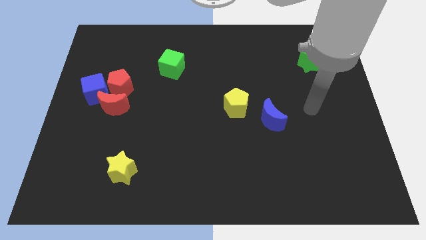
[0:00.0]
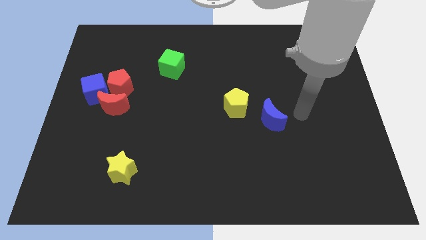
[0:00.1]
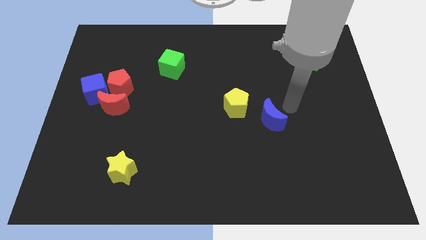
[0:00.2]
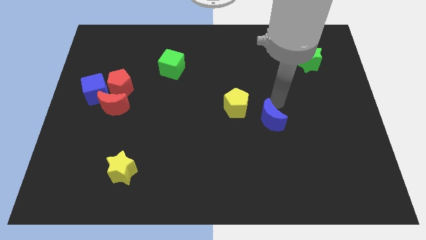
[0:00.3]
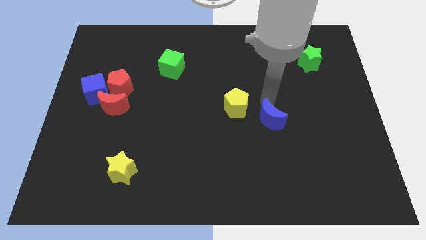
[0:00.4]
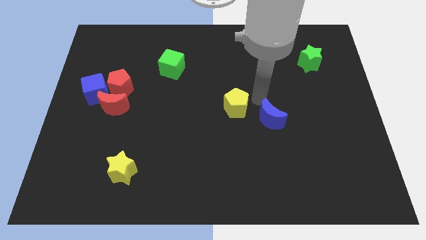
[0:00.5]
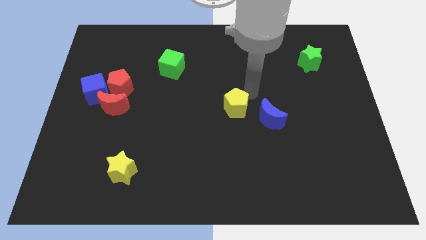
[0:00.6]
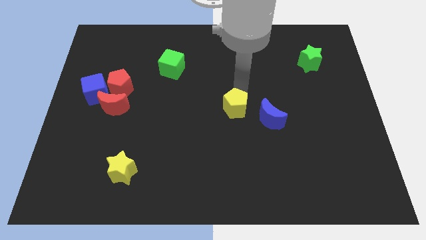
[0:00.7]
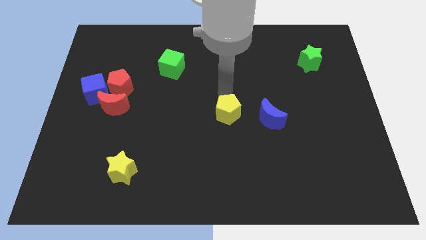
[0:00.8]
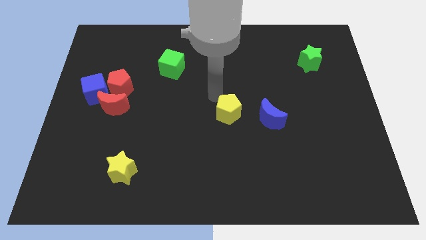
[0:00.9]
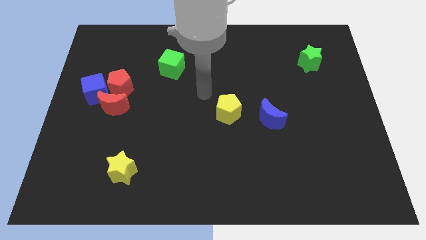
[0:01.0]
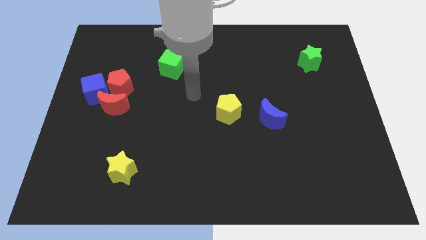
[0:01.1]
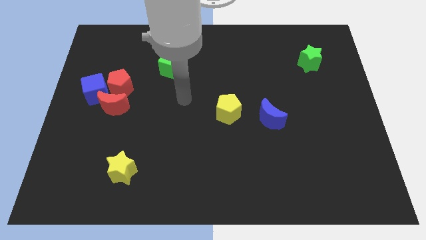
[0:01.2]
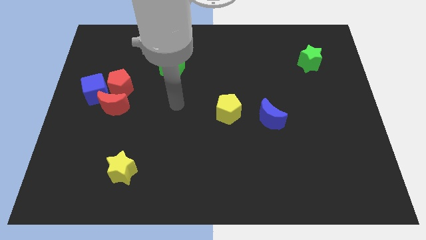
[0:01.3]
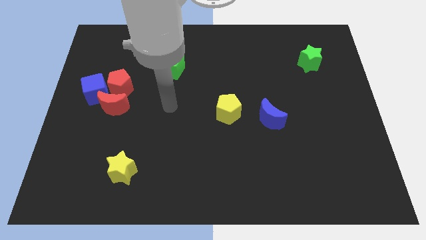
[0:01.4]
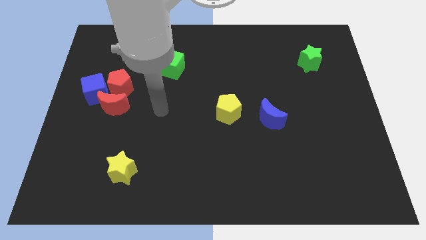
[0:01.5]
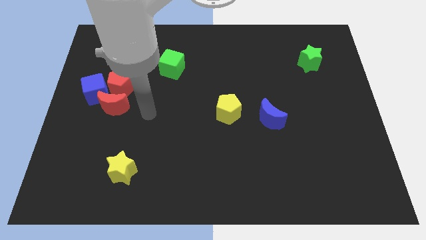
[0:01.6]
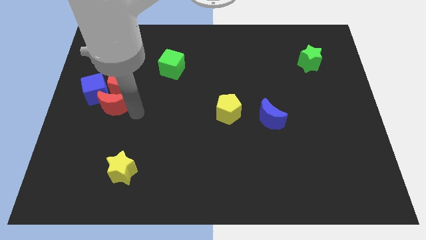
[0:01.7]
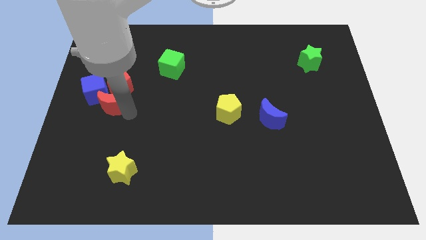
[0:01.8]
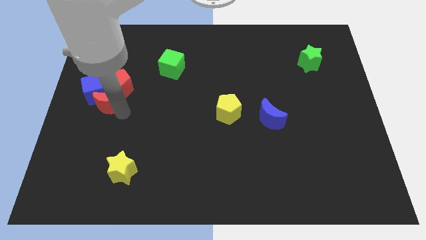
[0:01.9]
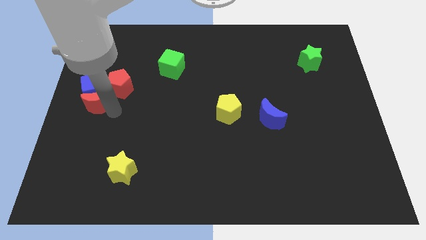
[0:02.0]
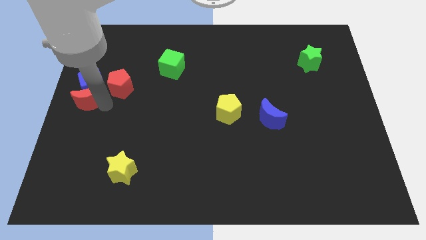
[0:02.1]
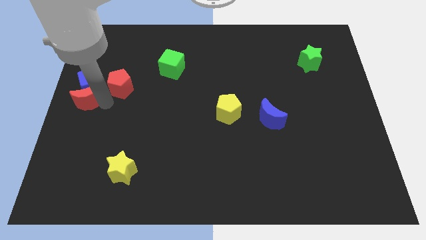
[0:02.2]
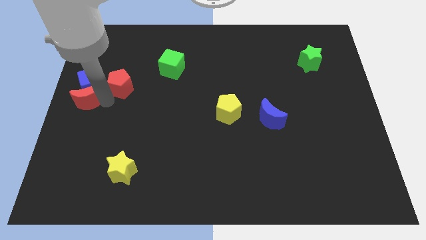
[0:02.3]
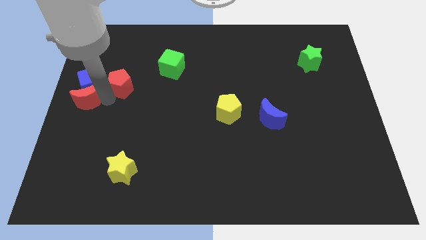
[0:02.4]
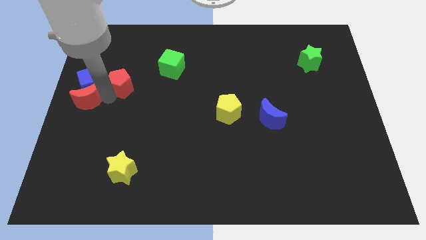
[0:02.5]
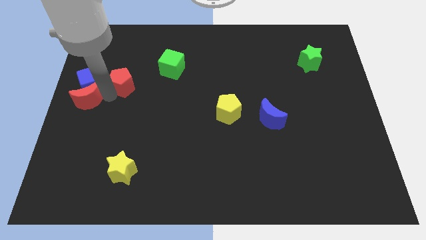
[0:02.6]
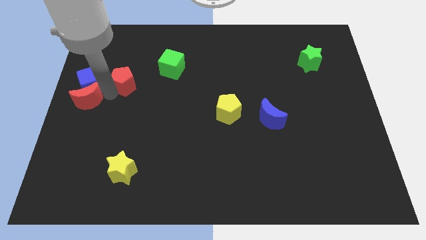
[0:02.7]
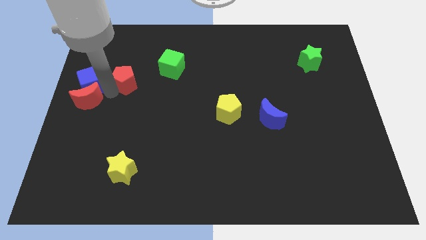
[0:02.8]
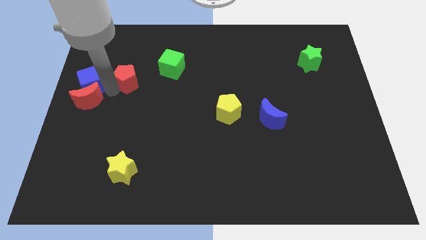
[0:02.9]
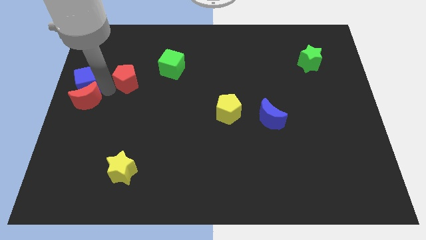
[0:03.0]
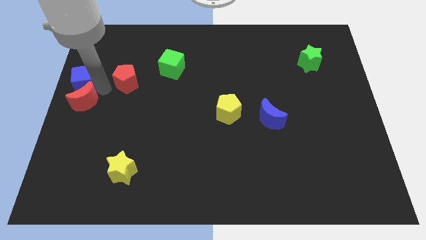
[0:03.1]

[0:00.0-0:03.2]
separate the red pentagon from the blue cube and red moon

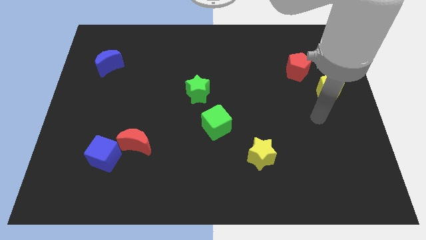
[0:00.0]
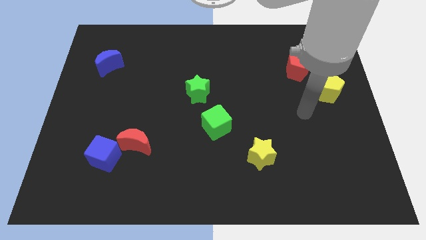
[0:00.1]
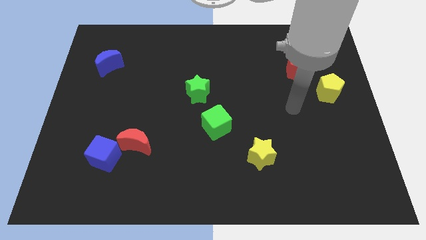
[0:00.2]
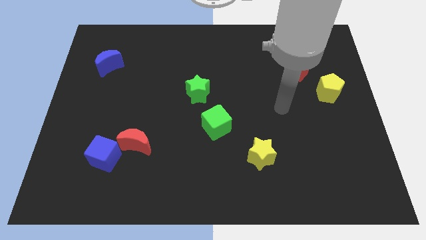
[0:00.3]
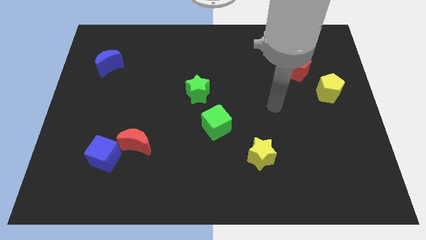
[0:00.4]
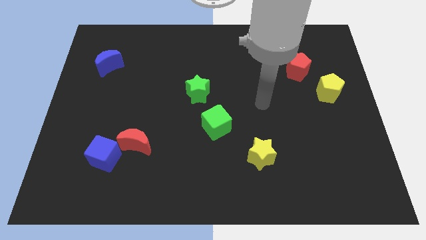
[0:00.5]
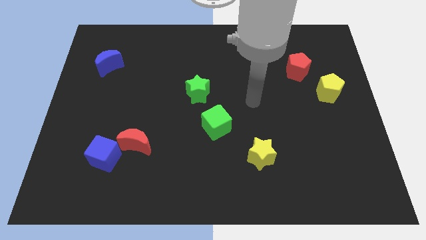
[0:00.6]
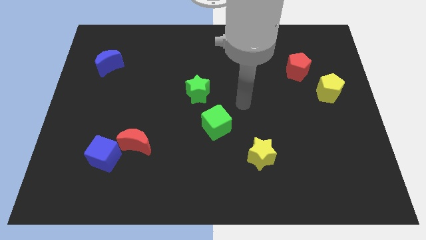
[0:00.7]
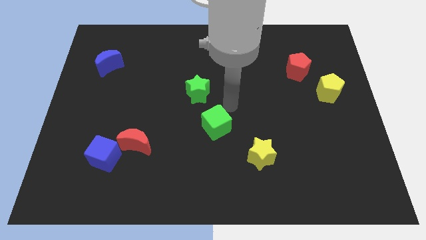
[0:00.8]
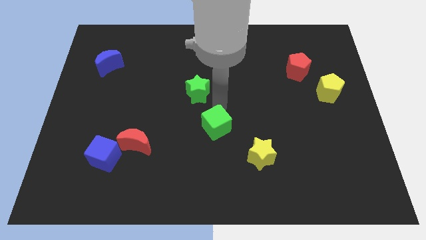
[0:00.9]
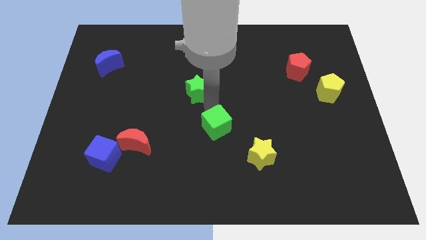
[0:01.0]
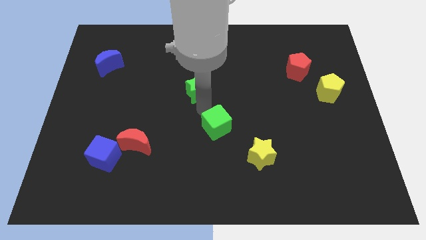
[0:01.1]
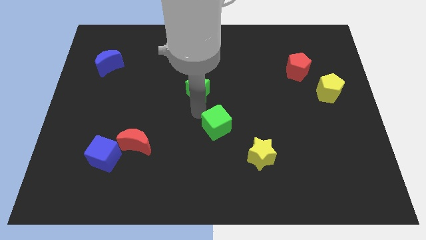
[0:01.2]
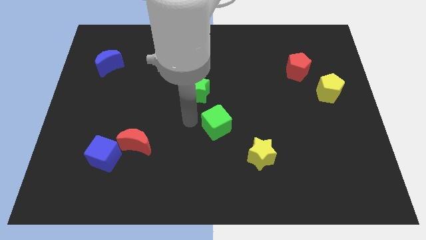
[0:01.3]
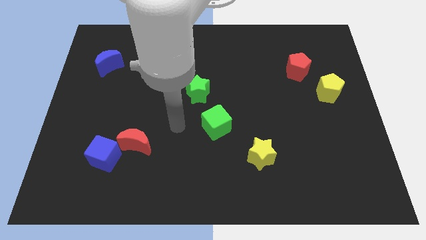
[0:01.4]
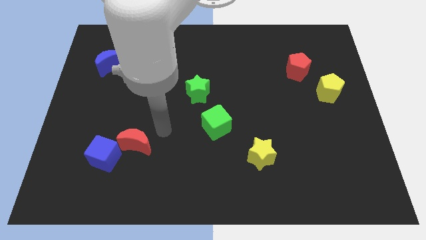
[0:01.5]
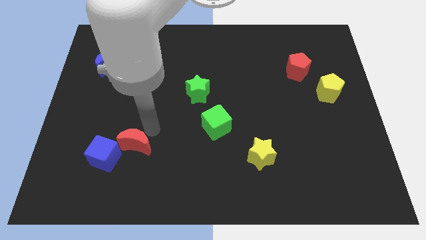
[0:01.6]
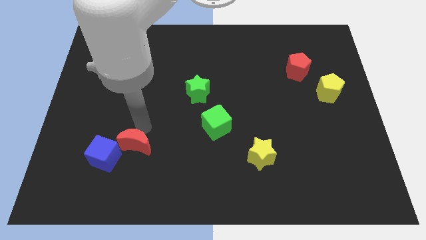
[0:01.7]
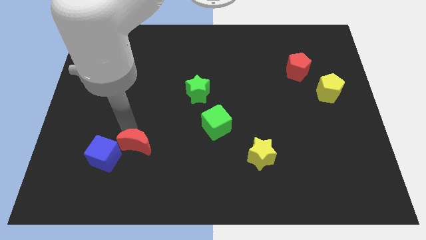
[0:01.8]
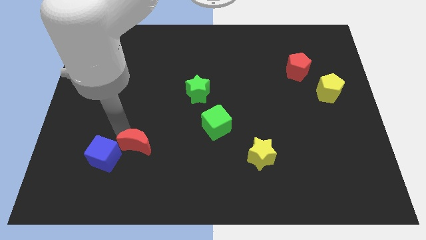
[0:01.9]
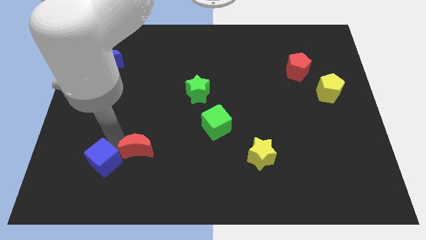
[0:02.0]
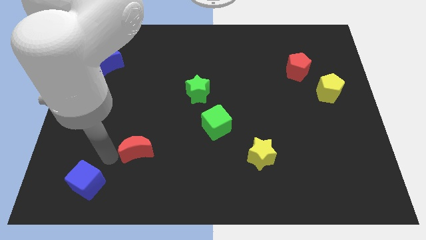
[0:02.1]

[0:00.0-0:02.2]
separate the red moon from the blue cube

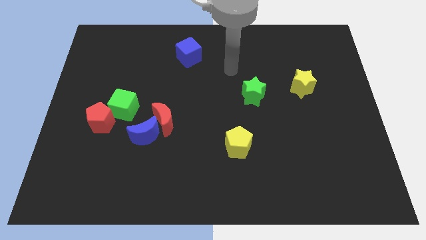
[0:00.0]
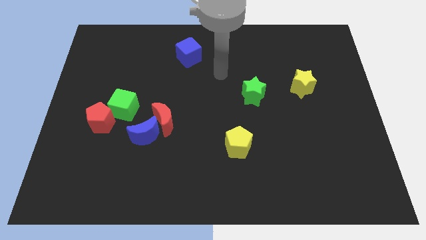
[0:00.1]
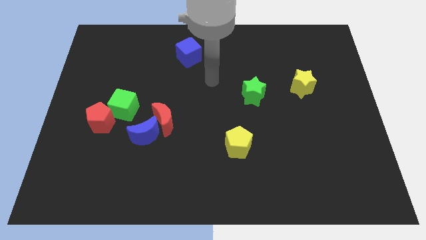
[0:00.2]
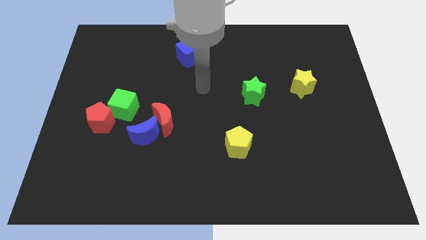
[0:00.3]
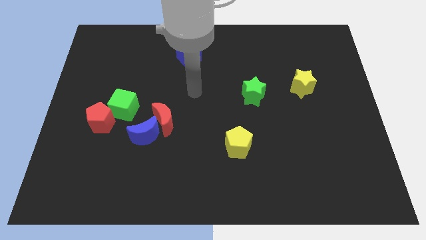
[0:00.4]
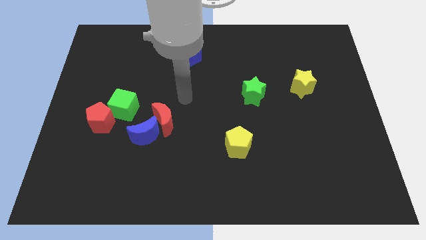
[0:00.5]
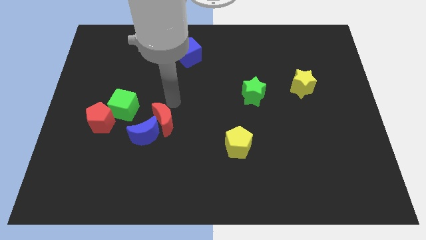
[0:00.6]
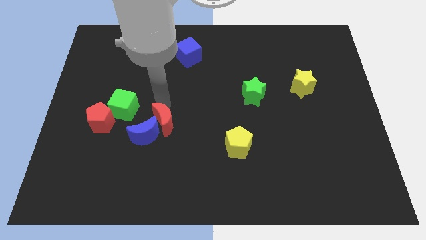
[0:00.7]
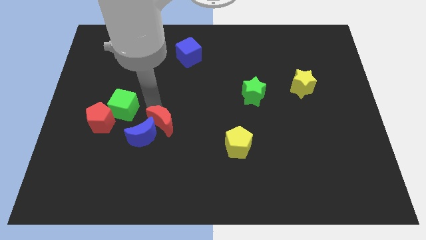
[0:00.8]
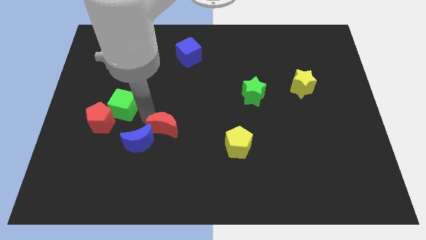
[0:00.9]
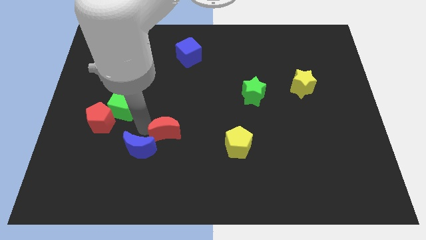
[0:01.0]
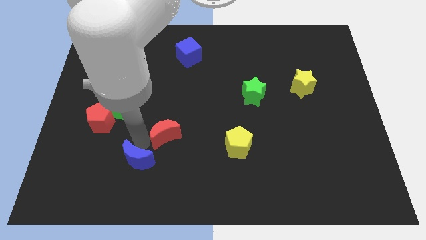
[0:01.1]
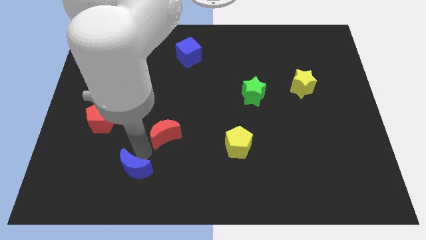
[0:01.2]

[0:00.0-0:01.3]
pull the red moon apart from the blue moon

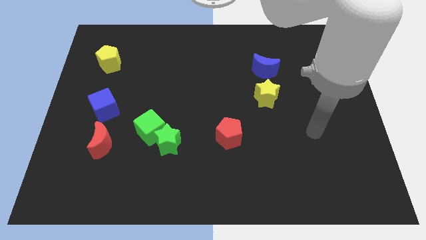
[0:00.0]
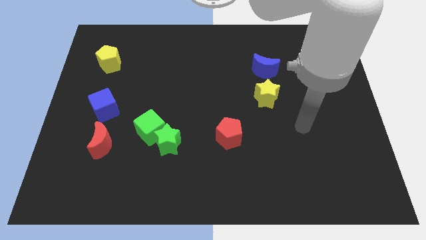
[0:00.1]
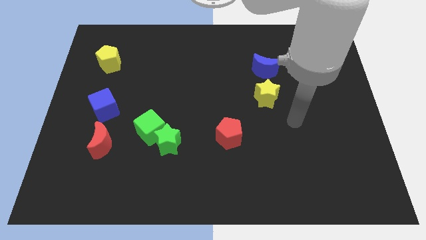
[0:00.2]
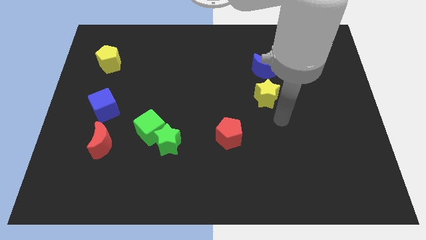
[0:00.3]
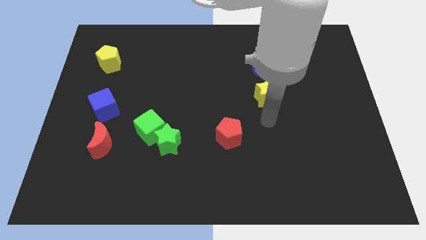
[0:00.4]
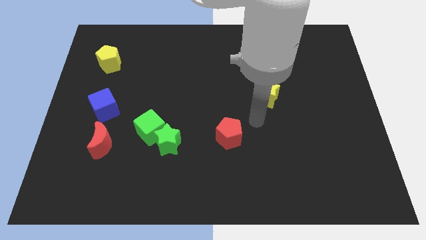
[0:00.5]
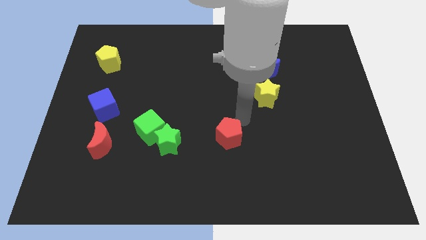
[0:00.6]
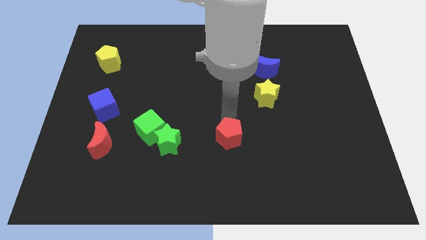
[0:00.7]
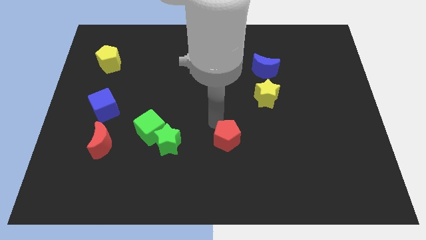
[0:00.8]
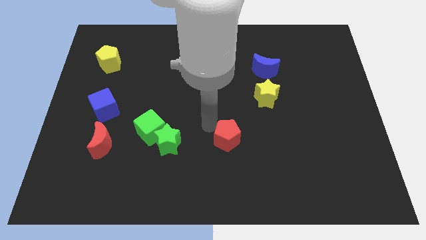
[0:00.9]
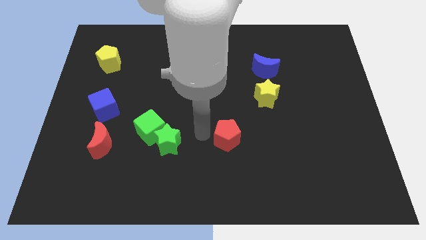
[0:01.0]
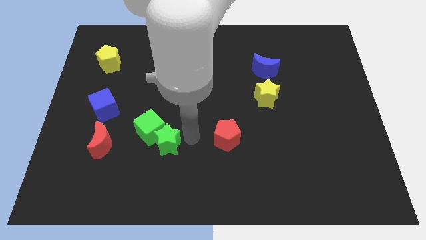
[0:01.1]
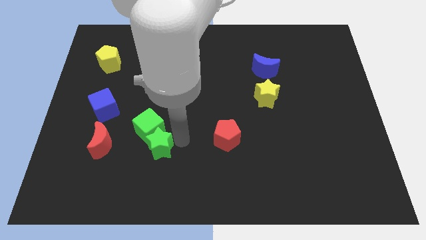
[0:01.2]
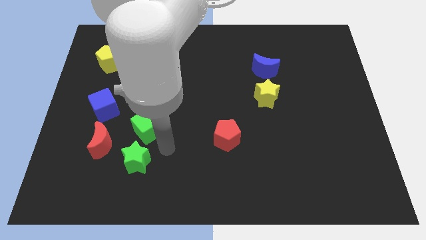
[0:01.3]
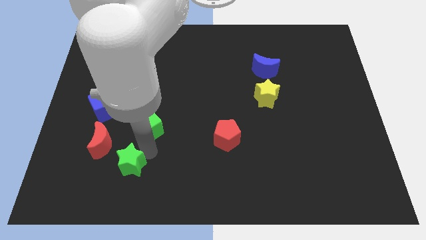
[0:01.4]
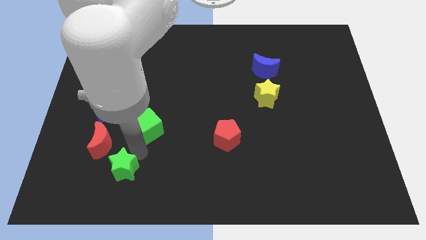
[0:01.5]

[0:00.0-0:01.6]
separate the green cube from the green star

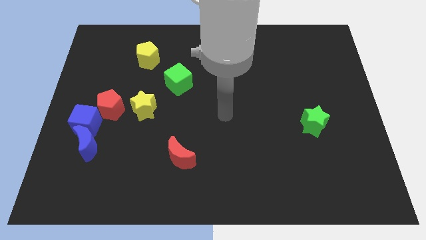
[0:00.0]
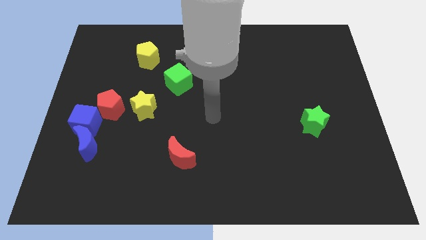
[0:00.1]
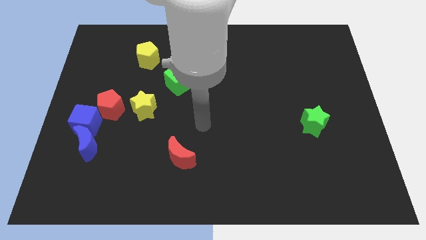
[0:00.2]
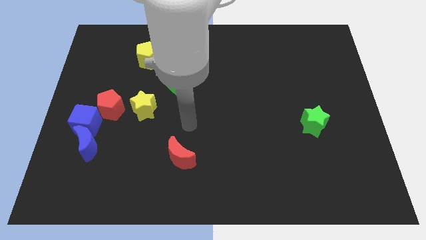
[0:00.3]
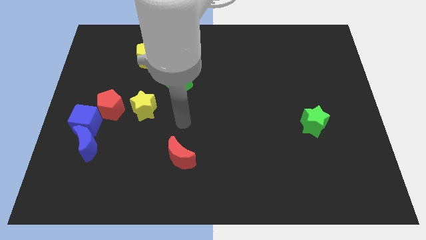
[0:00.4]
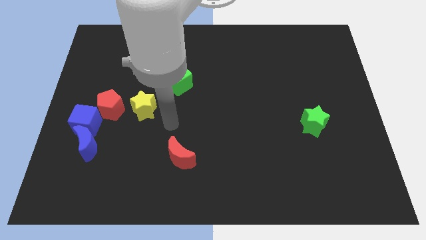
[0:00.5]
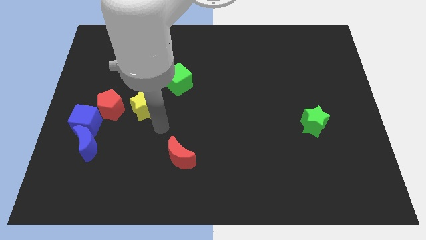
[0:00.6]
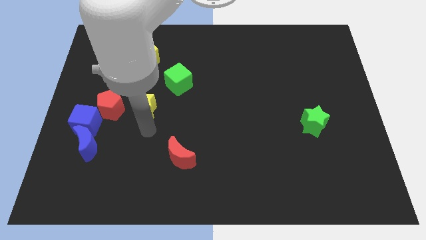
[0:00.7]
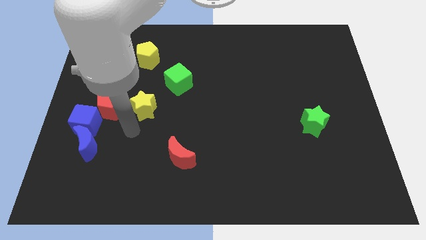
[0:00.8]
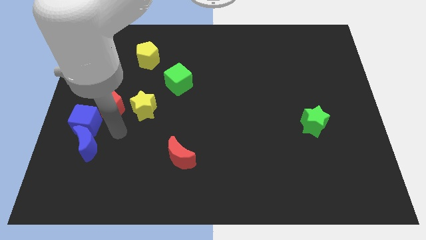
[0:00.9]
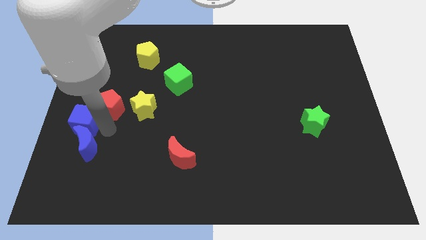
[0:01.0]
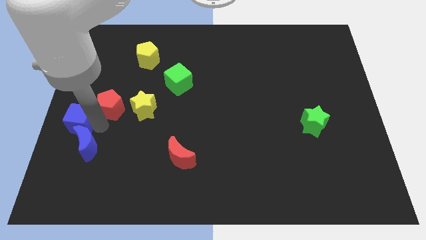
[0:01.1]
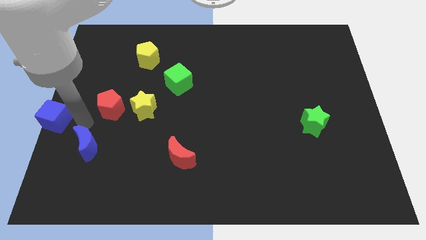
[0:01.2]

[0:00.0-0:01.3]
move the blue moon away from the blue cube
